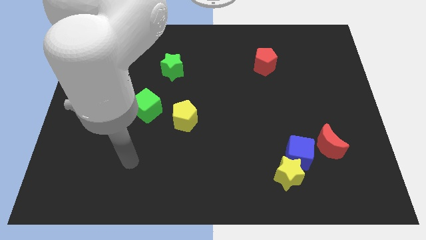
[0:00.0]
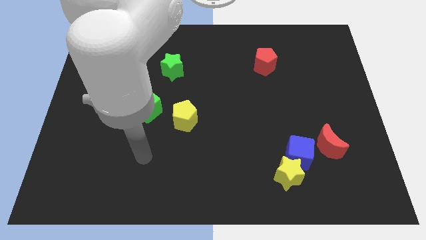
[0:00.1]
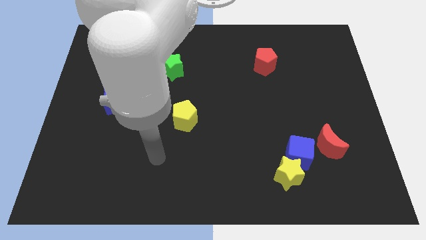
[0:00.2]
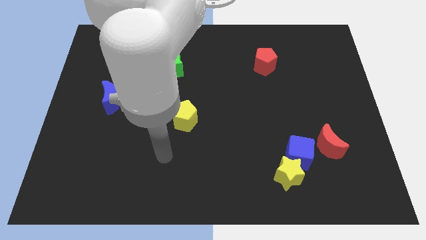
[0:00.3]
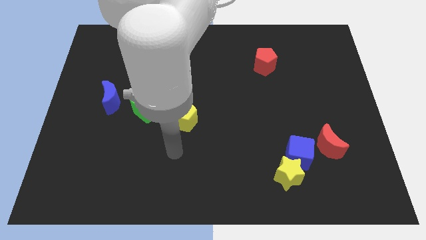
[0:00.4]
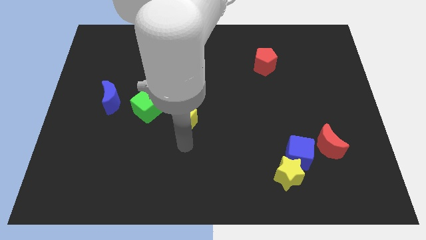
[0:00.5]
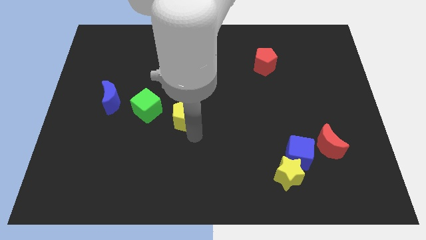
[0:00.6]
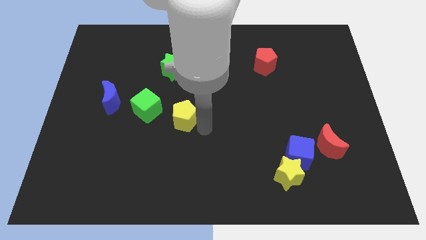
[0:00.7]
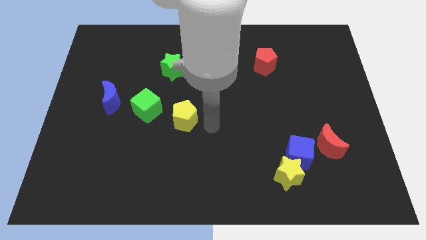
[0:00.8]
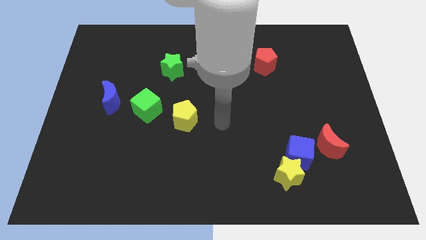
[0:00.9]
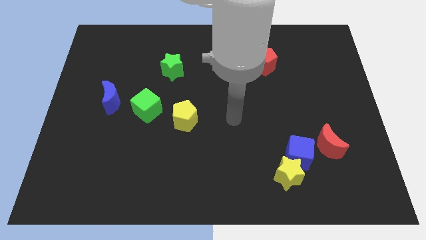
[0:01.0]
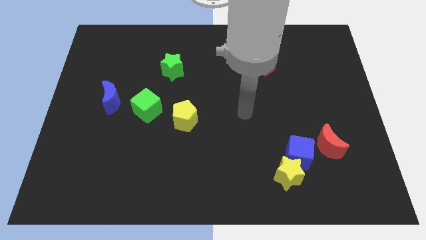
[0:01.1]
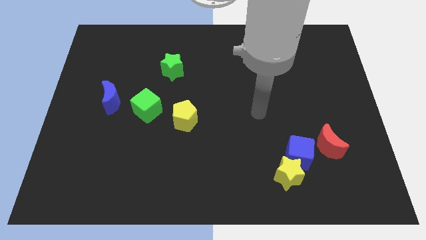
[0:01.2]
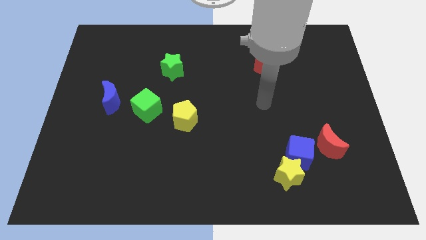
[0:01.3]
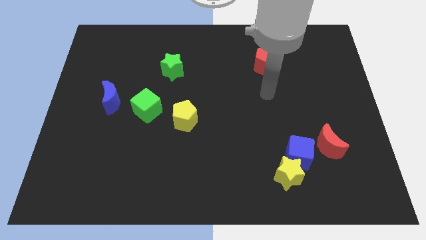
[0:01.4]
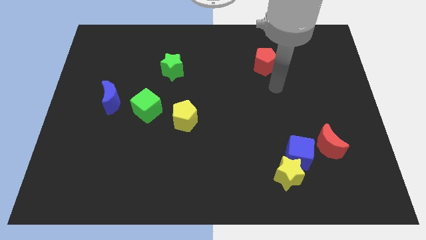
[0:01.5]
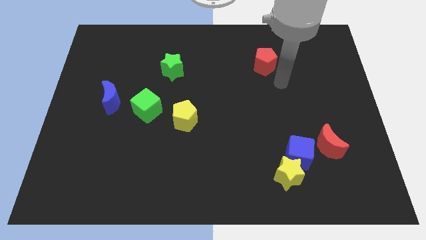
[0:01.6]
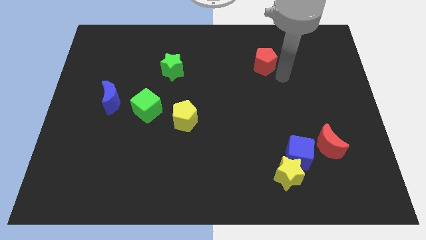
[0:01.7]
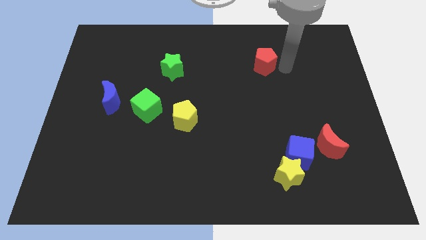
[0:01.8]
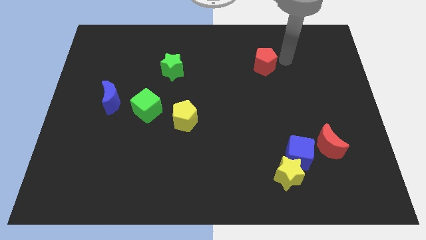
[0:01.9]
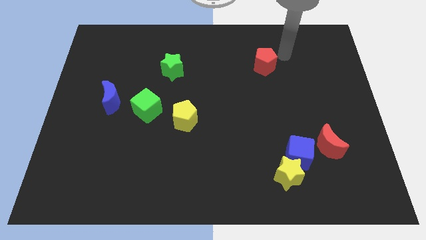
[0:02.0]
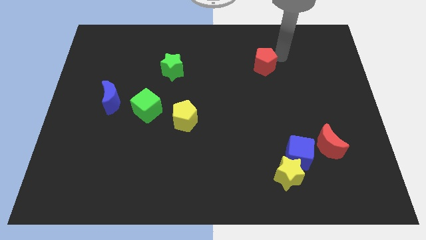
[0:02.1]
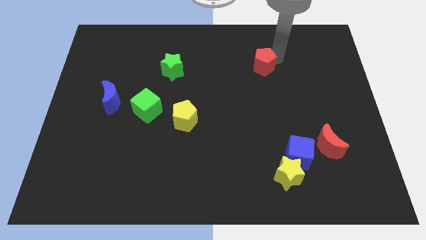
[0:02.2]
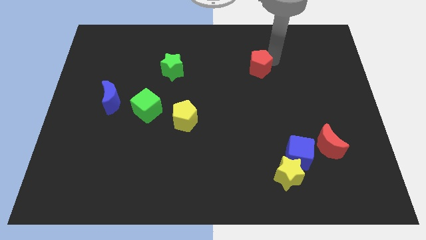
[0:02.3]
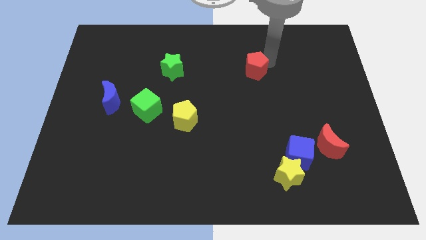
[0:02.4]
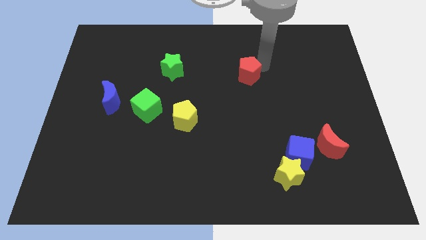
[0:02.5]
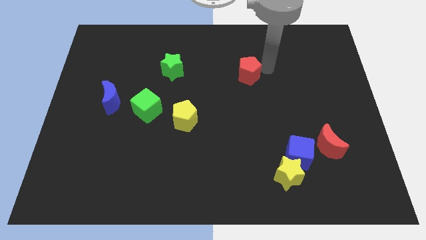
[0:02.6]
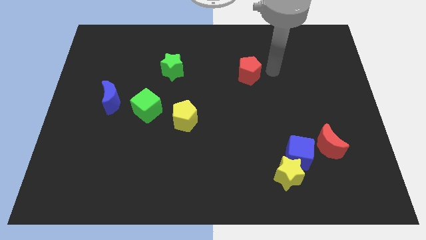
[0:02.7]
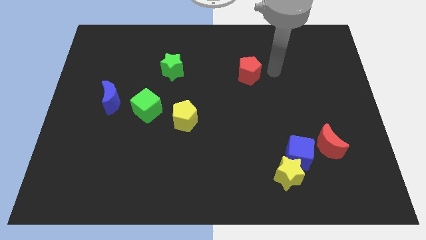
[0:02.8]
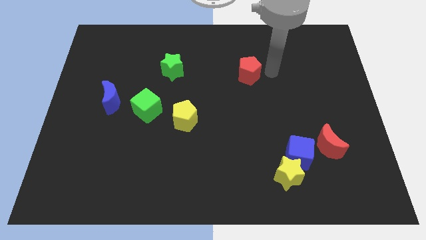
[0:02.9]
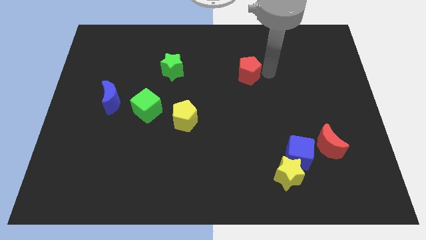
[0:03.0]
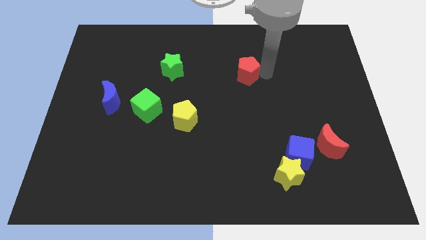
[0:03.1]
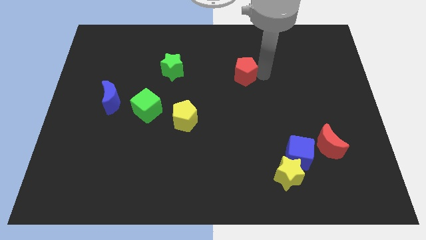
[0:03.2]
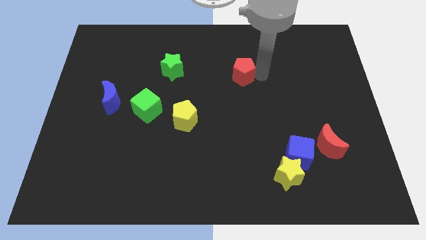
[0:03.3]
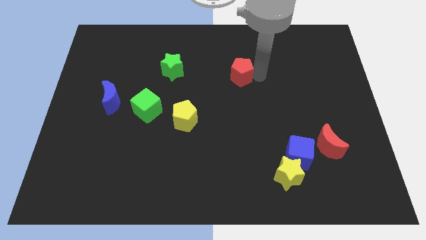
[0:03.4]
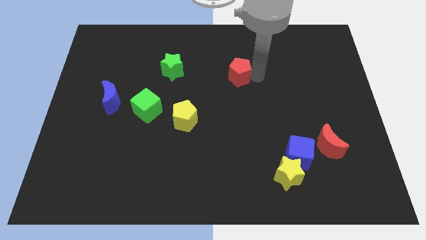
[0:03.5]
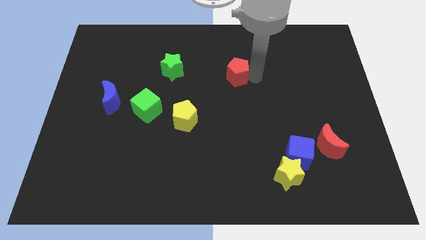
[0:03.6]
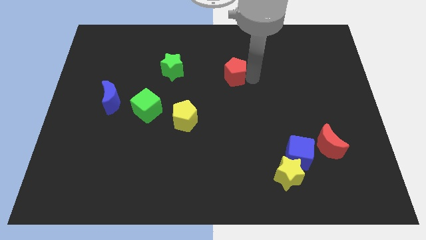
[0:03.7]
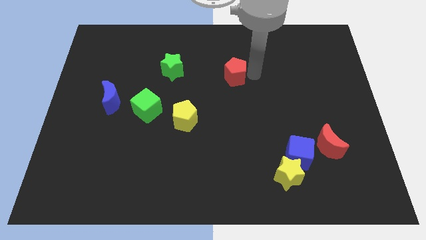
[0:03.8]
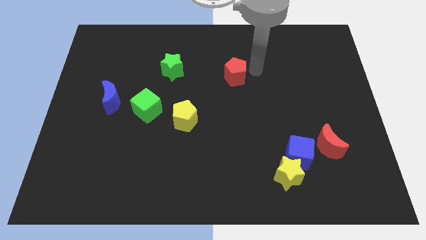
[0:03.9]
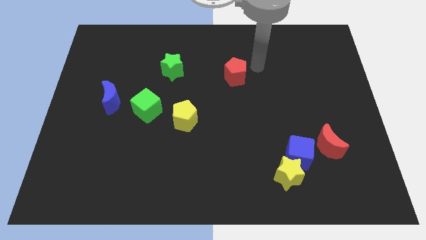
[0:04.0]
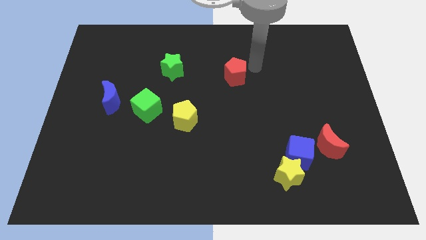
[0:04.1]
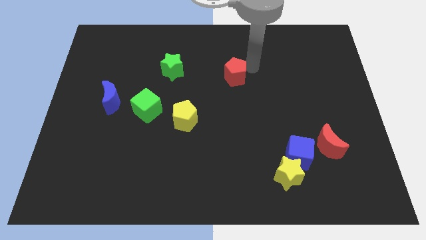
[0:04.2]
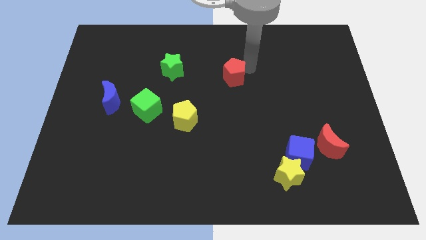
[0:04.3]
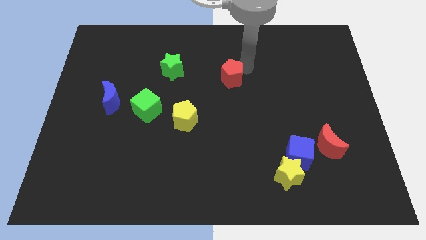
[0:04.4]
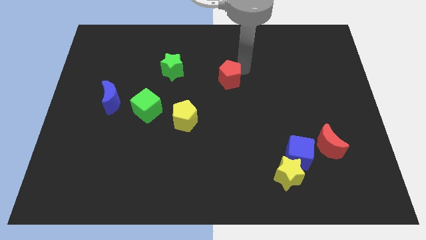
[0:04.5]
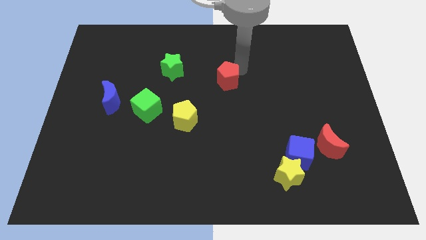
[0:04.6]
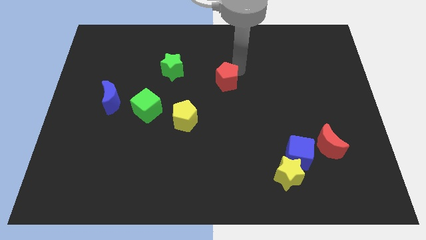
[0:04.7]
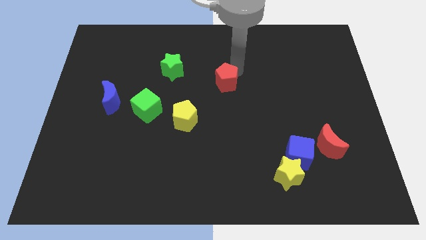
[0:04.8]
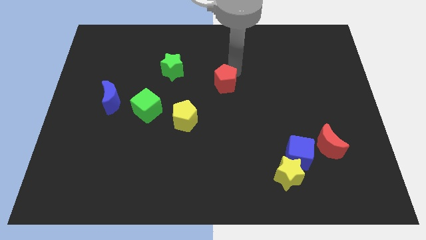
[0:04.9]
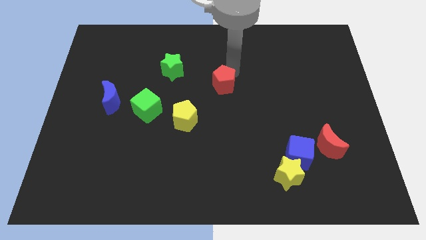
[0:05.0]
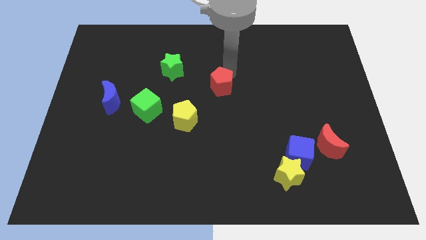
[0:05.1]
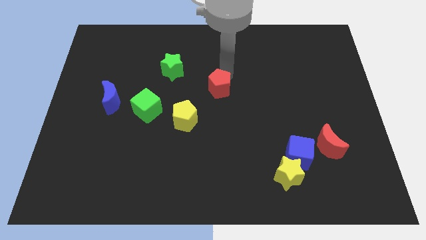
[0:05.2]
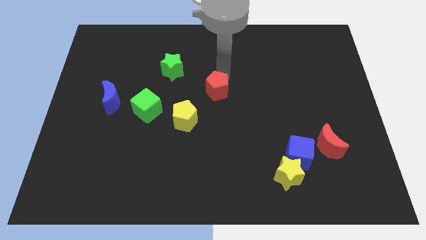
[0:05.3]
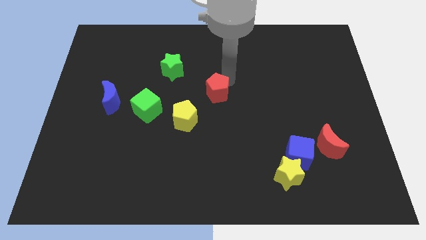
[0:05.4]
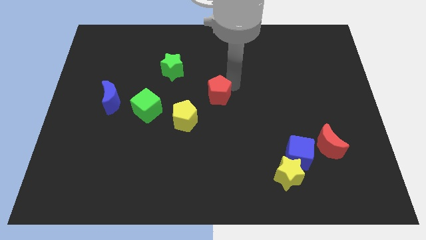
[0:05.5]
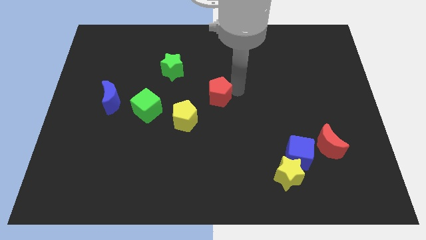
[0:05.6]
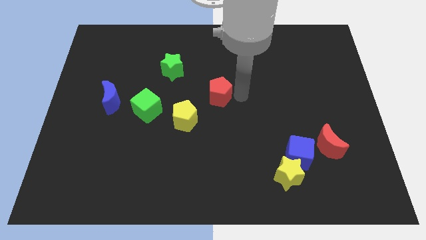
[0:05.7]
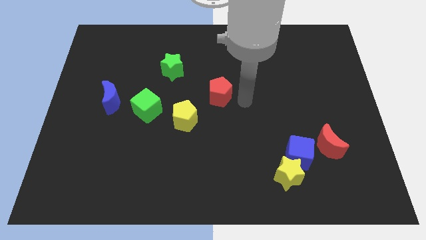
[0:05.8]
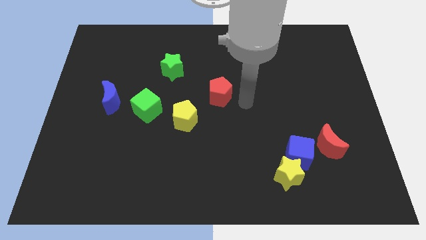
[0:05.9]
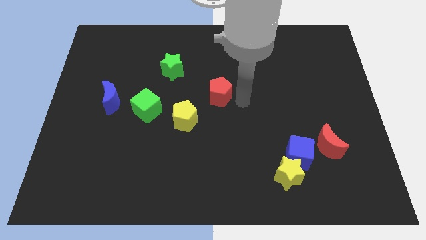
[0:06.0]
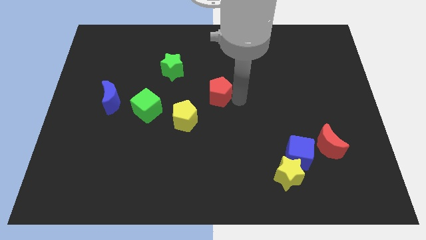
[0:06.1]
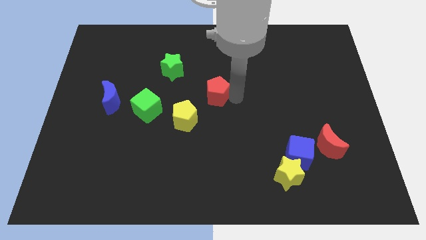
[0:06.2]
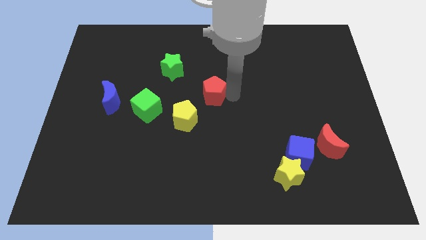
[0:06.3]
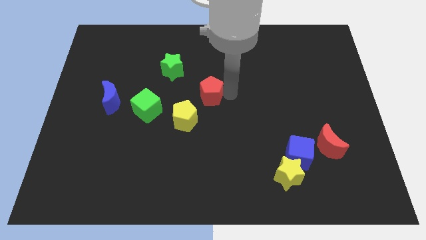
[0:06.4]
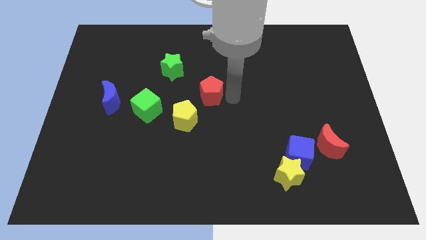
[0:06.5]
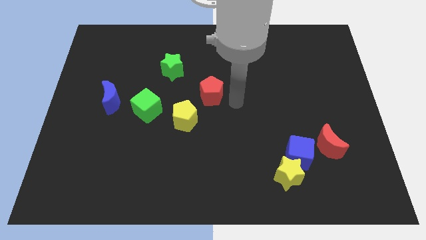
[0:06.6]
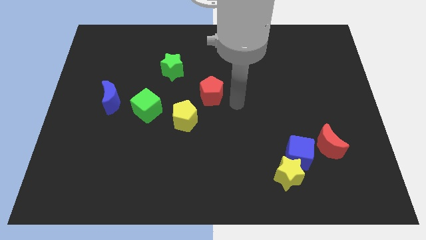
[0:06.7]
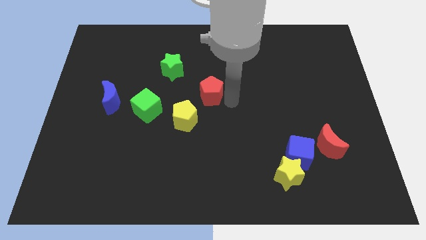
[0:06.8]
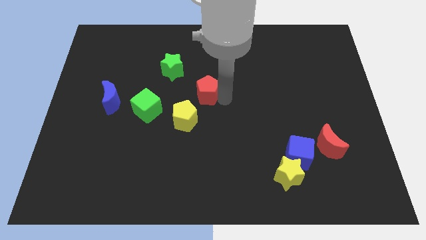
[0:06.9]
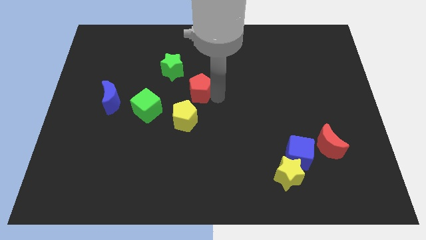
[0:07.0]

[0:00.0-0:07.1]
push the red pentagon to the top side of the yellow pentagon

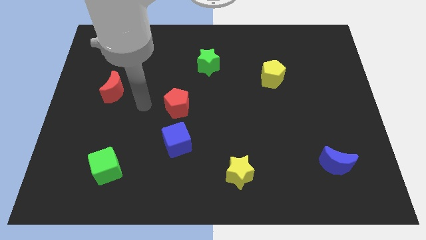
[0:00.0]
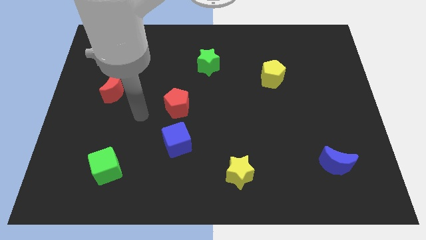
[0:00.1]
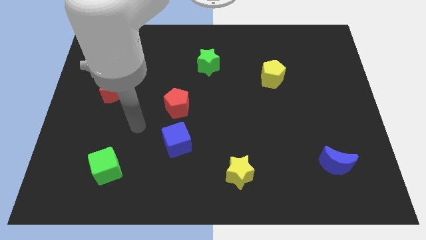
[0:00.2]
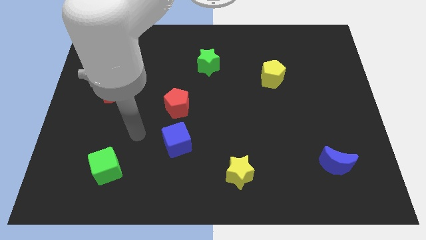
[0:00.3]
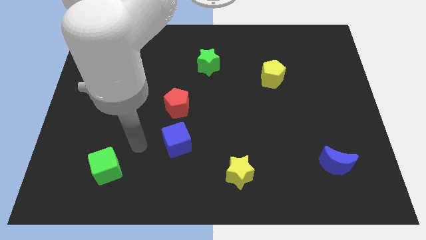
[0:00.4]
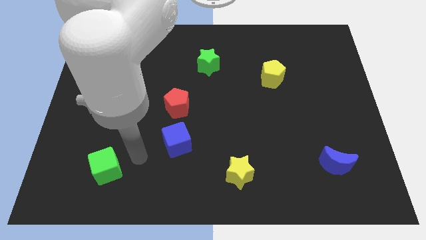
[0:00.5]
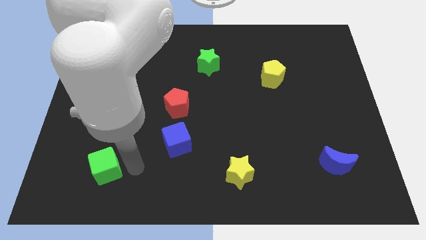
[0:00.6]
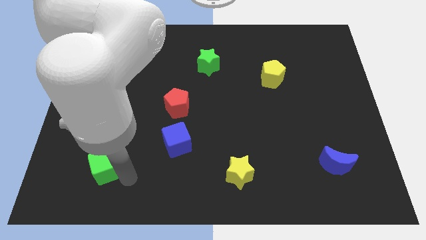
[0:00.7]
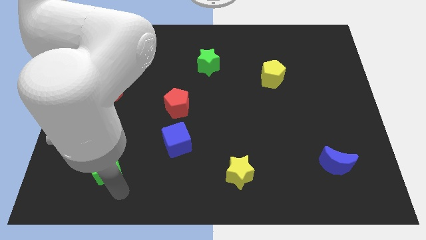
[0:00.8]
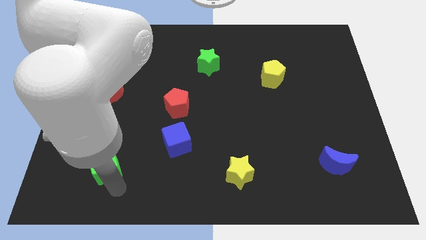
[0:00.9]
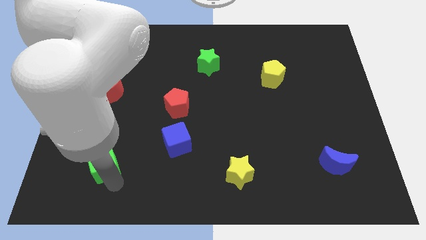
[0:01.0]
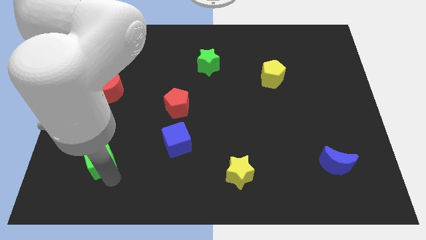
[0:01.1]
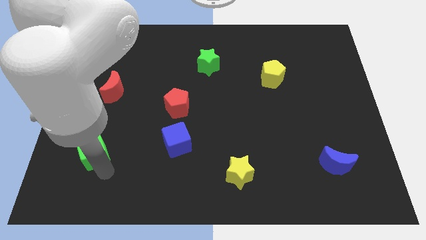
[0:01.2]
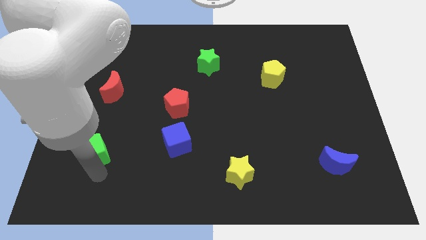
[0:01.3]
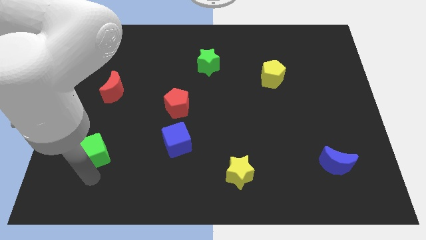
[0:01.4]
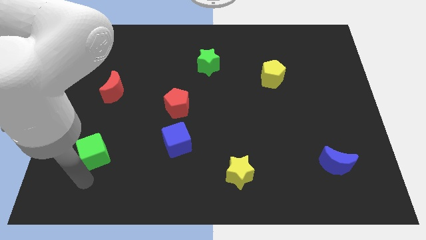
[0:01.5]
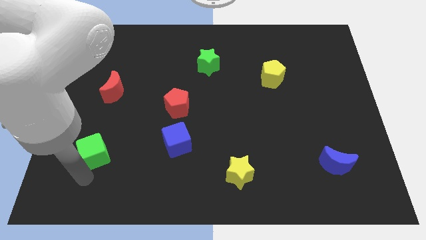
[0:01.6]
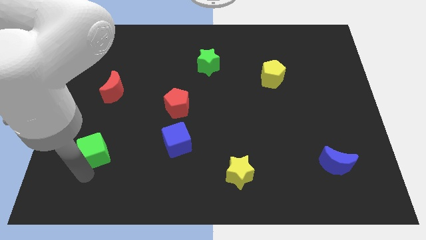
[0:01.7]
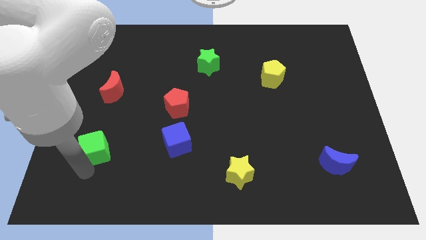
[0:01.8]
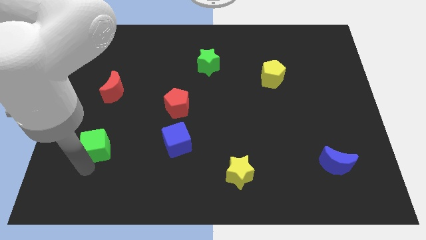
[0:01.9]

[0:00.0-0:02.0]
slide the green cube below the red moon
